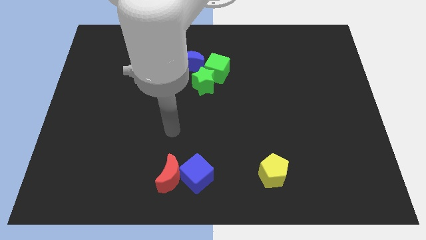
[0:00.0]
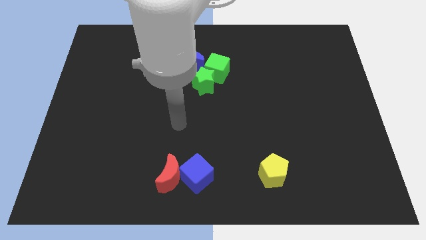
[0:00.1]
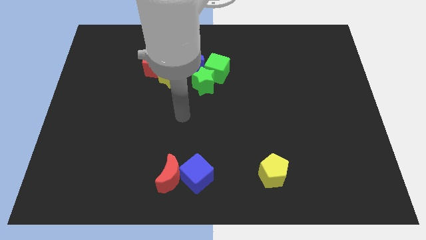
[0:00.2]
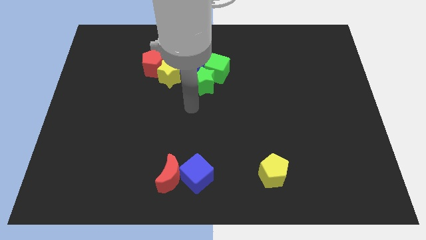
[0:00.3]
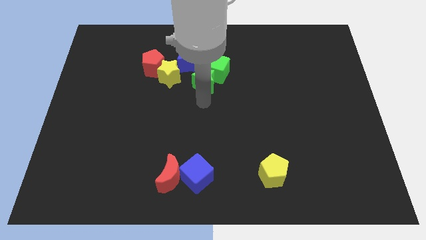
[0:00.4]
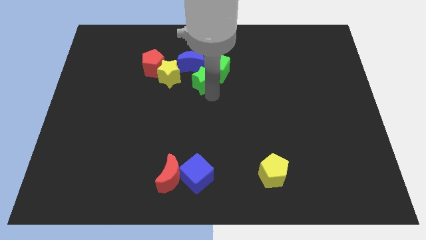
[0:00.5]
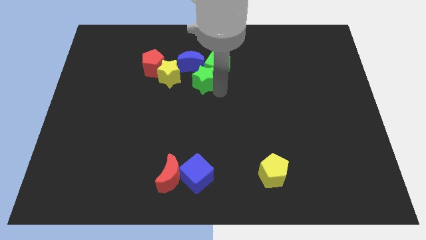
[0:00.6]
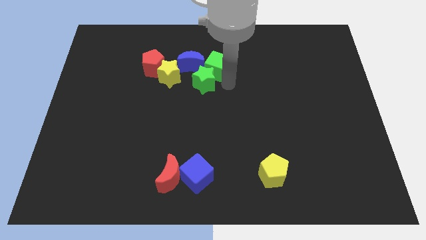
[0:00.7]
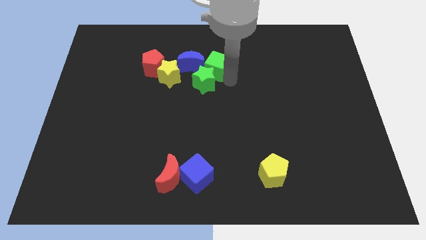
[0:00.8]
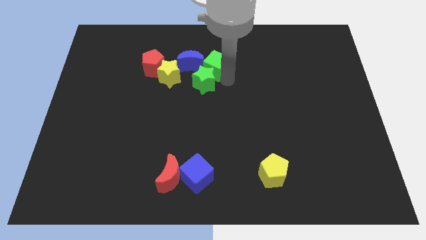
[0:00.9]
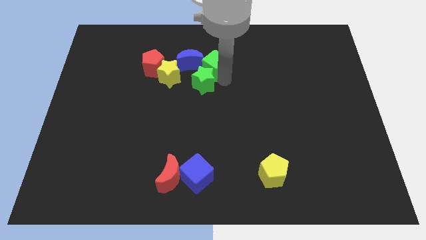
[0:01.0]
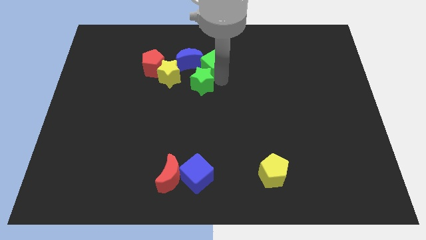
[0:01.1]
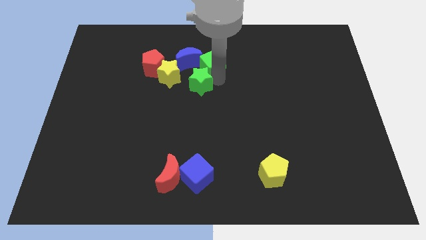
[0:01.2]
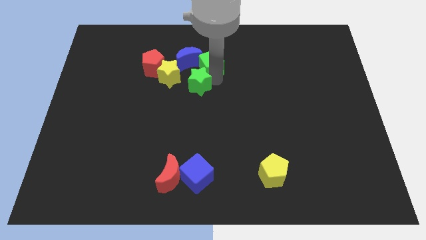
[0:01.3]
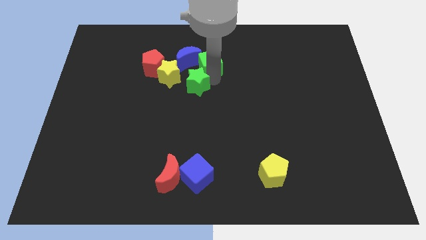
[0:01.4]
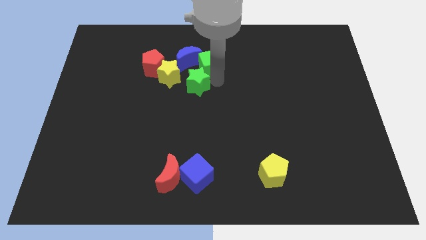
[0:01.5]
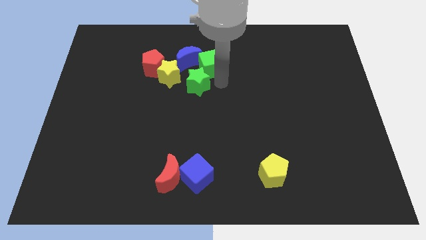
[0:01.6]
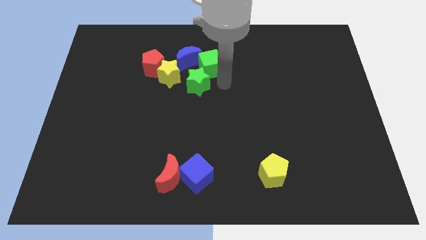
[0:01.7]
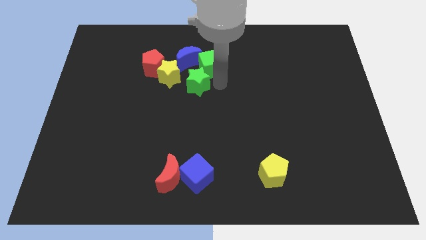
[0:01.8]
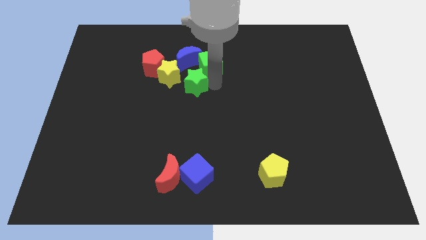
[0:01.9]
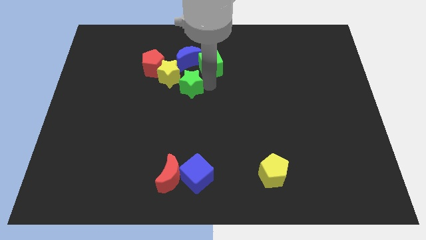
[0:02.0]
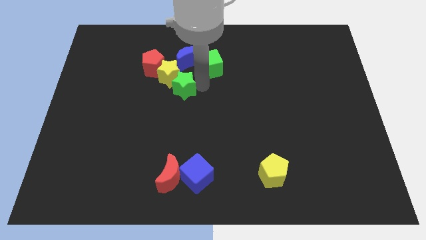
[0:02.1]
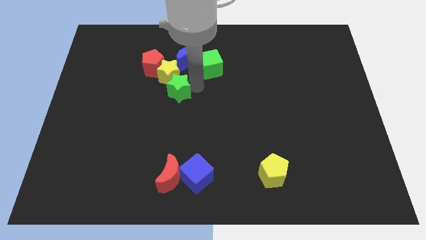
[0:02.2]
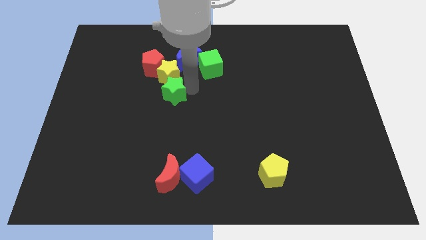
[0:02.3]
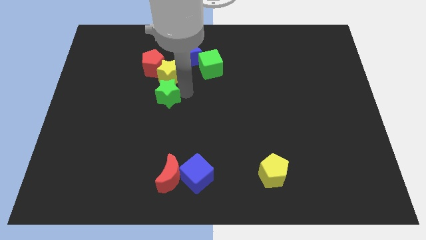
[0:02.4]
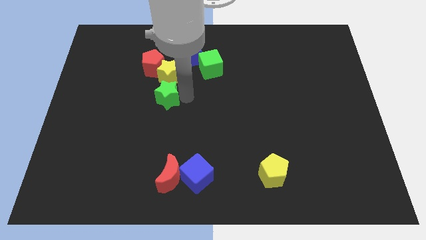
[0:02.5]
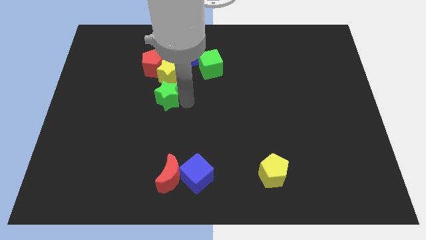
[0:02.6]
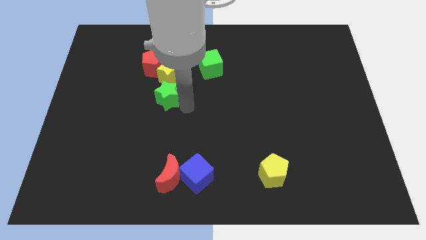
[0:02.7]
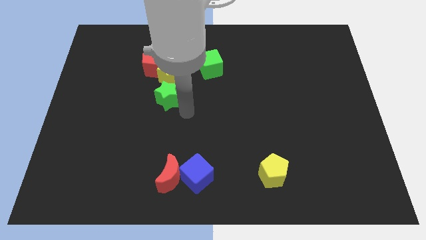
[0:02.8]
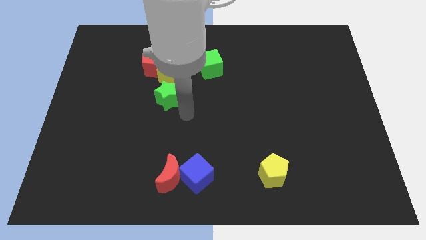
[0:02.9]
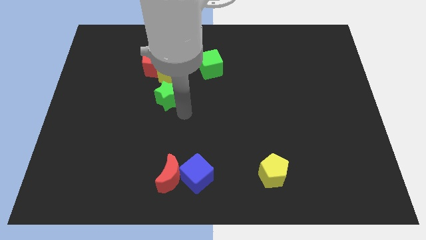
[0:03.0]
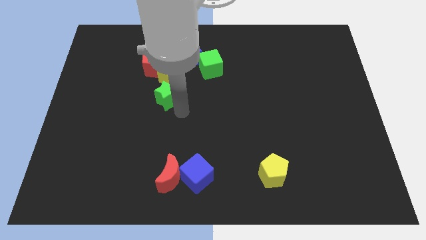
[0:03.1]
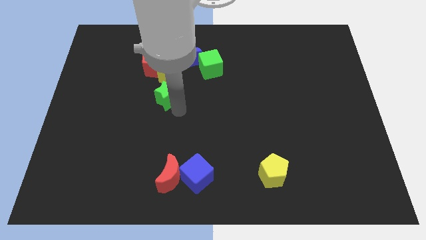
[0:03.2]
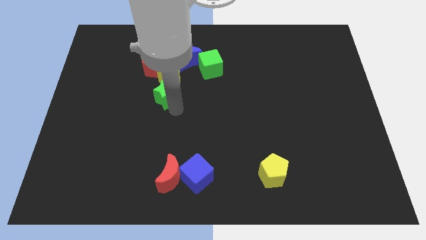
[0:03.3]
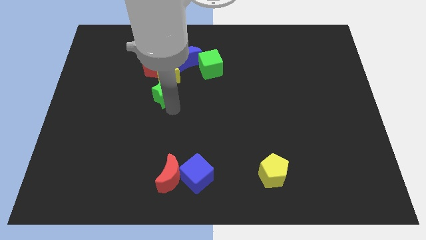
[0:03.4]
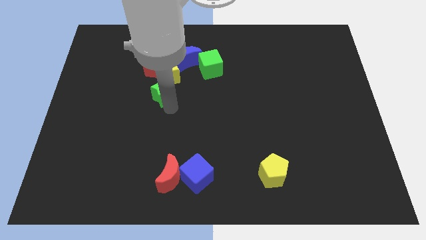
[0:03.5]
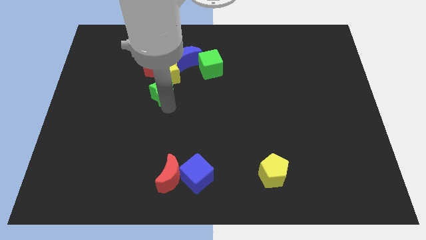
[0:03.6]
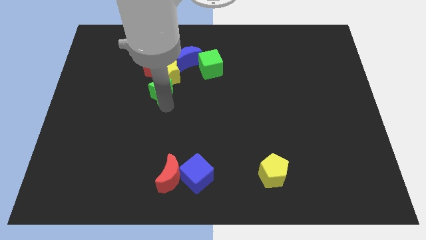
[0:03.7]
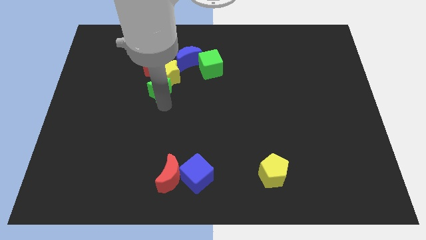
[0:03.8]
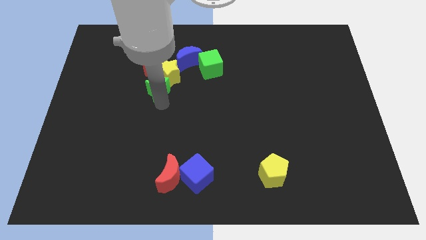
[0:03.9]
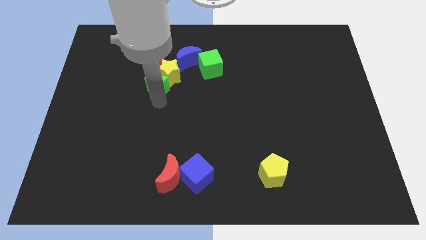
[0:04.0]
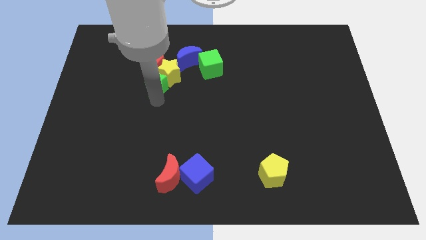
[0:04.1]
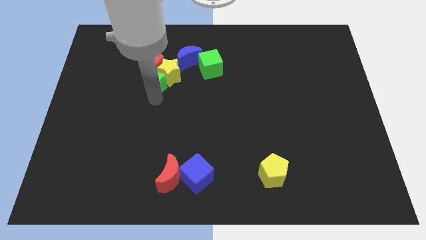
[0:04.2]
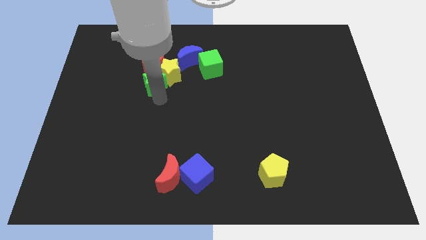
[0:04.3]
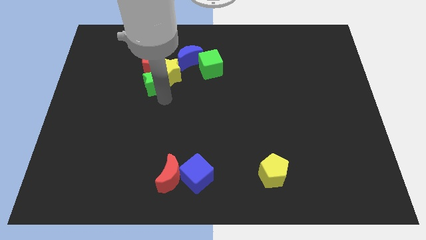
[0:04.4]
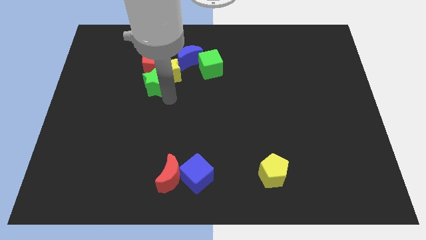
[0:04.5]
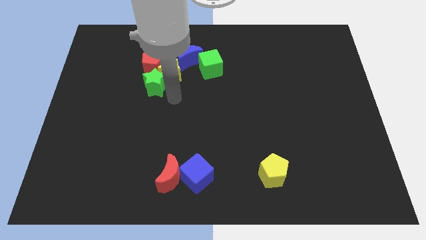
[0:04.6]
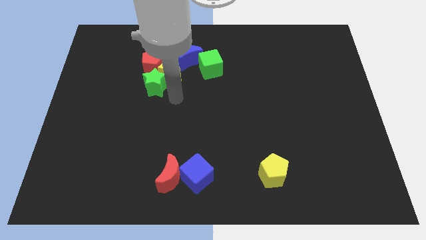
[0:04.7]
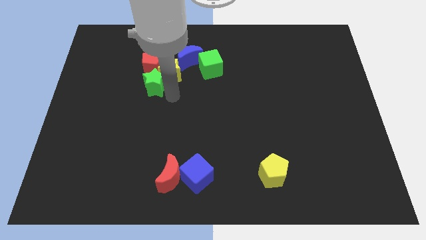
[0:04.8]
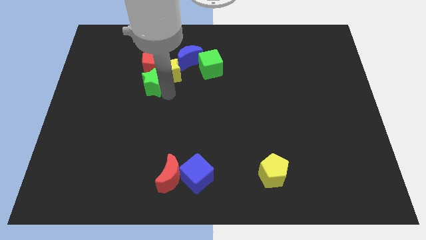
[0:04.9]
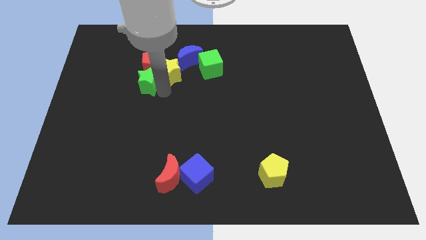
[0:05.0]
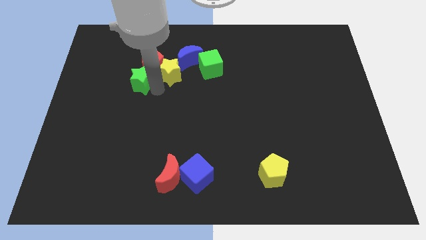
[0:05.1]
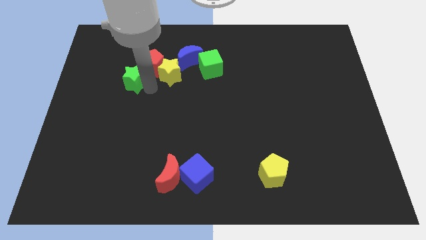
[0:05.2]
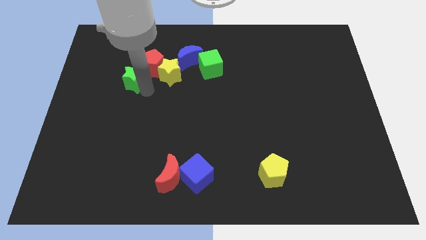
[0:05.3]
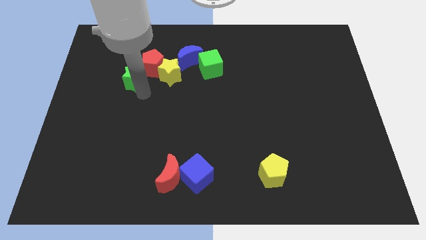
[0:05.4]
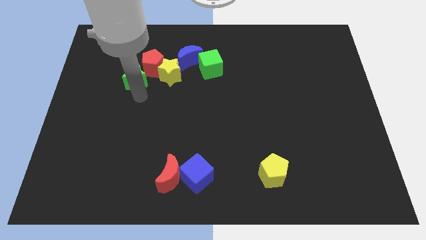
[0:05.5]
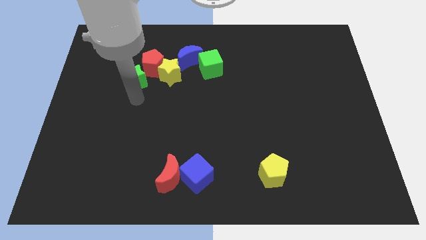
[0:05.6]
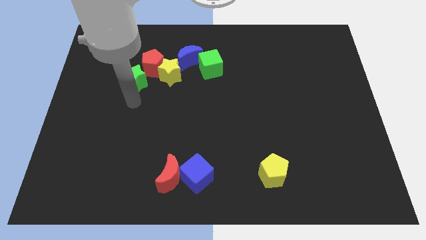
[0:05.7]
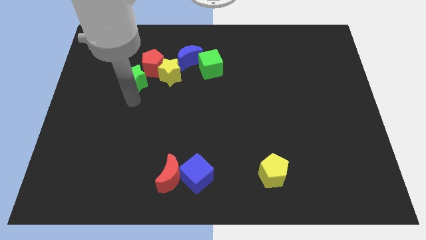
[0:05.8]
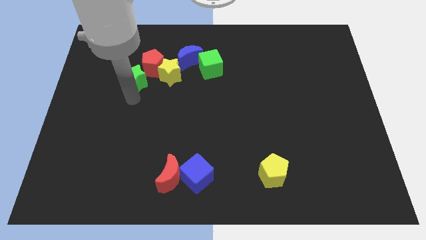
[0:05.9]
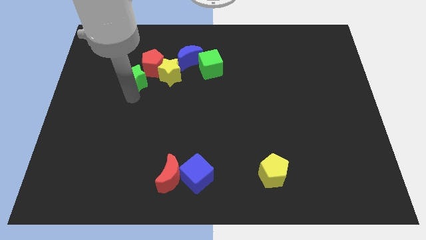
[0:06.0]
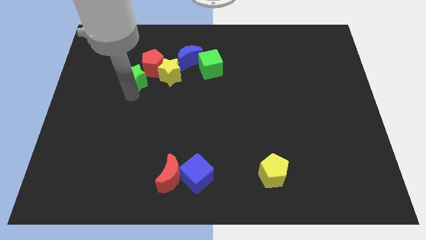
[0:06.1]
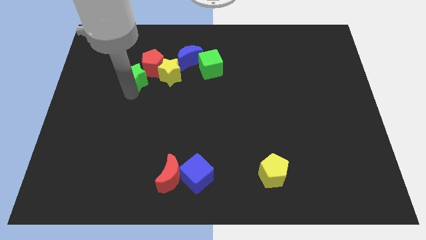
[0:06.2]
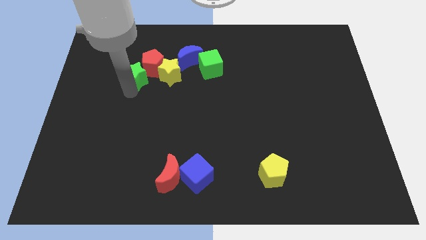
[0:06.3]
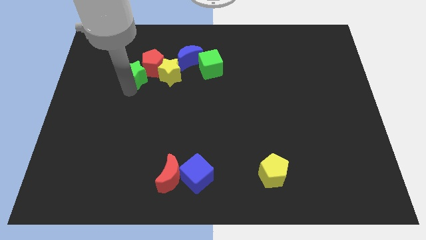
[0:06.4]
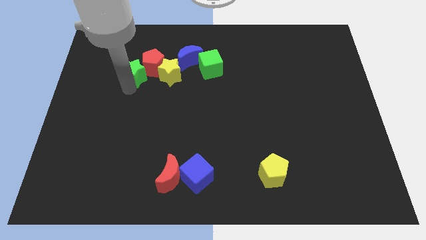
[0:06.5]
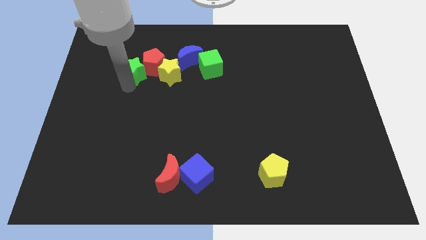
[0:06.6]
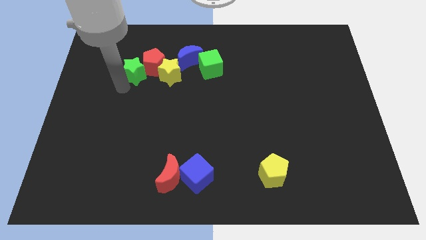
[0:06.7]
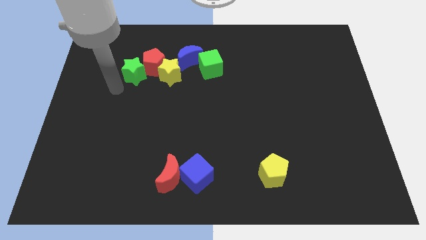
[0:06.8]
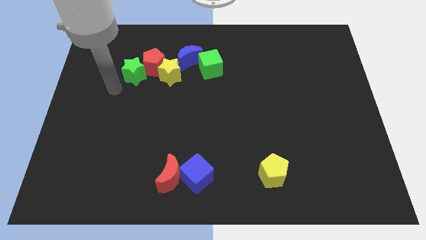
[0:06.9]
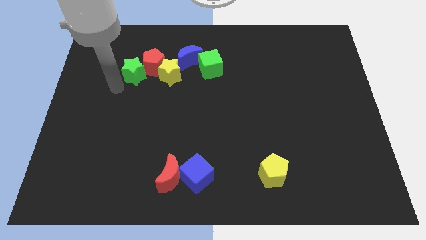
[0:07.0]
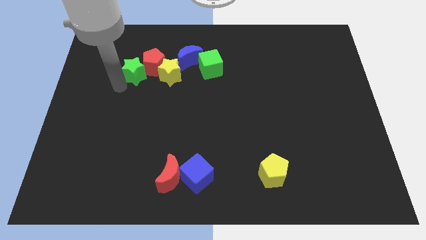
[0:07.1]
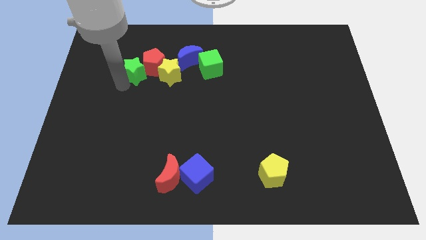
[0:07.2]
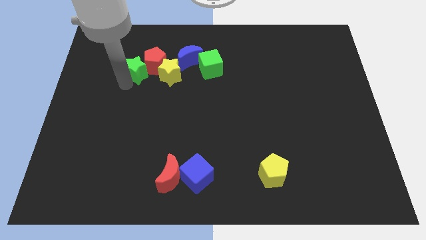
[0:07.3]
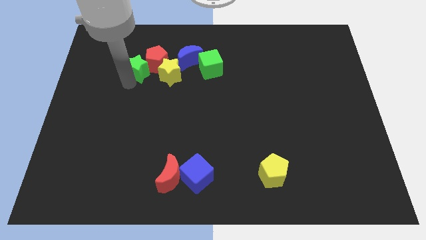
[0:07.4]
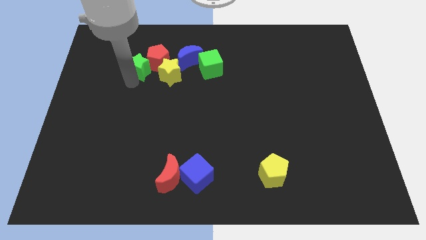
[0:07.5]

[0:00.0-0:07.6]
move the green star to the top left side of the yellow star
